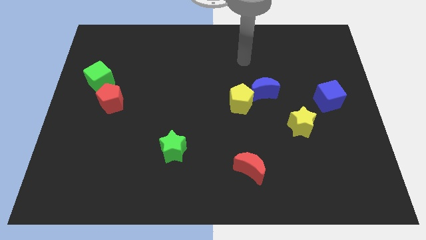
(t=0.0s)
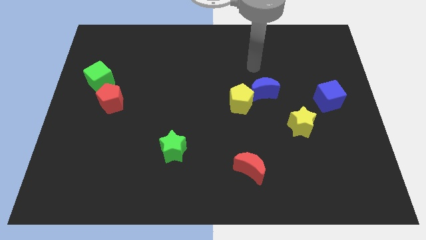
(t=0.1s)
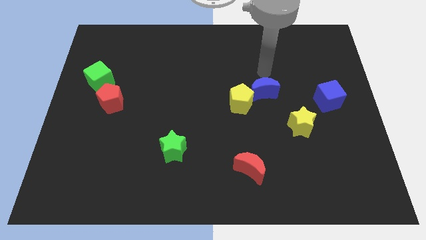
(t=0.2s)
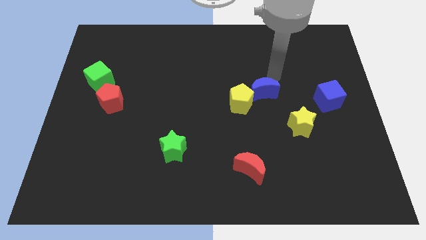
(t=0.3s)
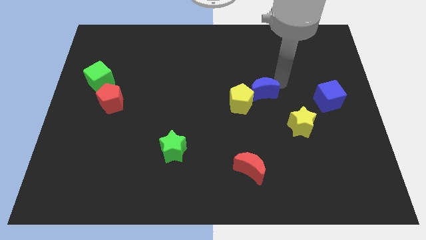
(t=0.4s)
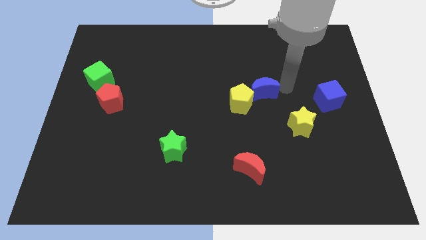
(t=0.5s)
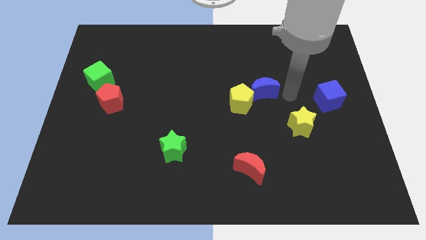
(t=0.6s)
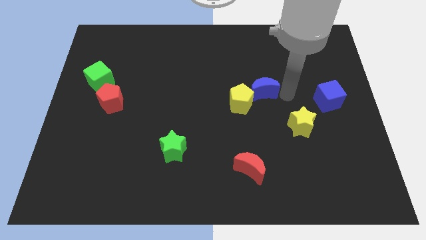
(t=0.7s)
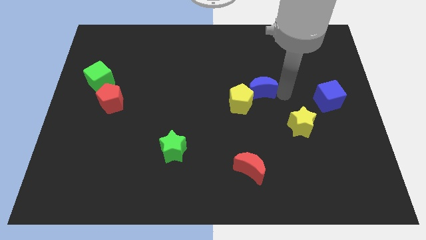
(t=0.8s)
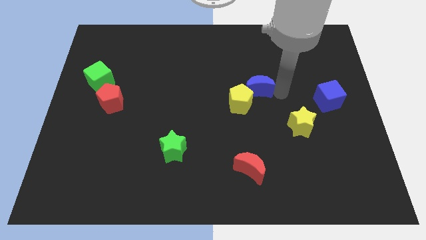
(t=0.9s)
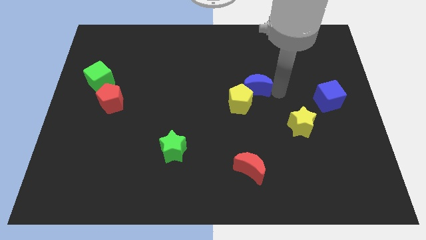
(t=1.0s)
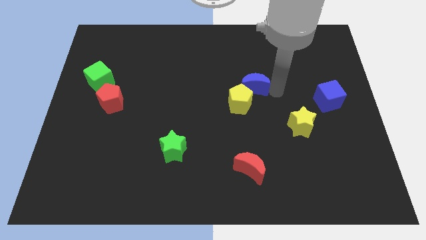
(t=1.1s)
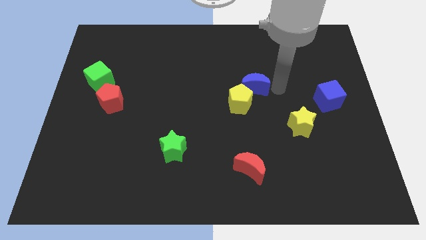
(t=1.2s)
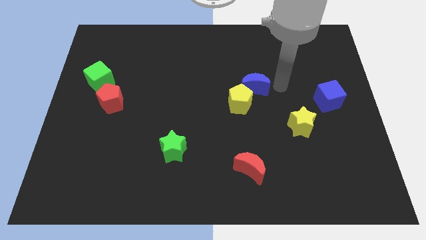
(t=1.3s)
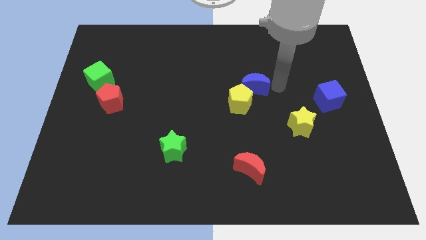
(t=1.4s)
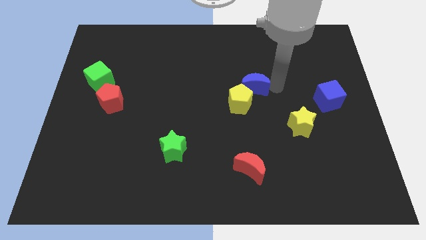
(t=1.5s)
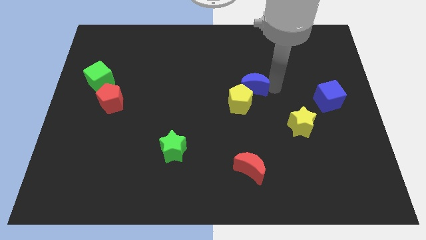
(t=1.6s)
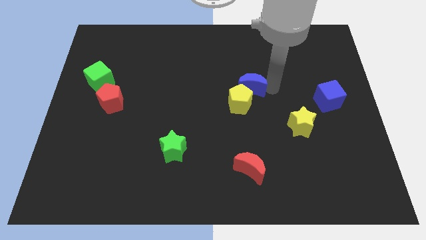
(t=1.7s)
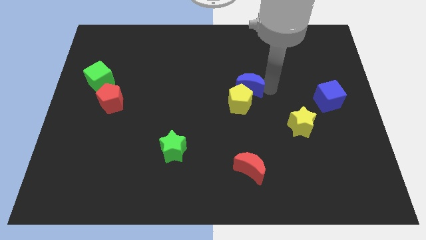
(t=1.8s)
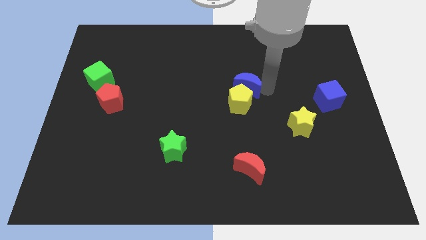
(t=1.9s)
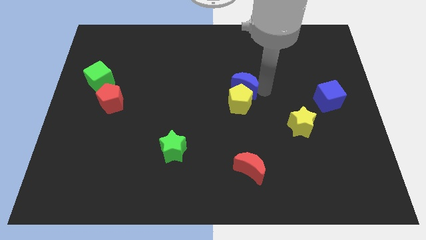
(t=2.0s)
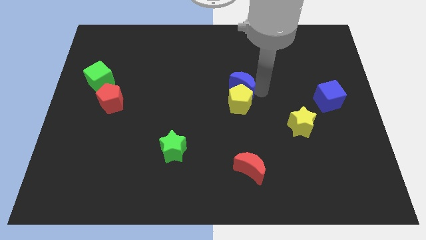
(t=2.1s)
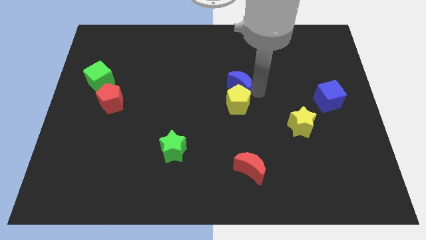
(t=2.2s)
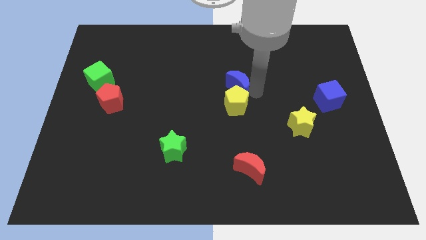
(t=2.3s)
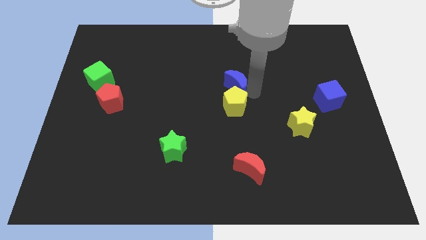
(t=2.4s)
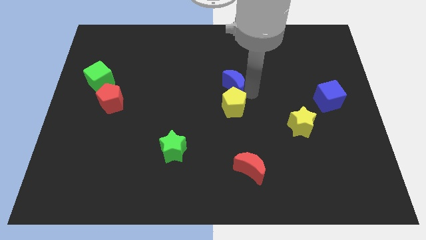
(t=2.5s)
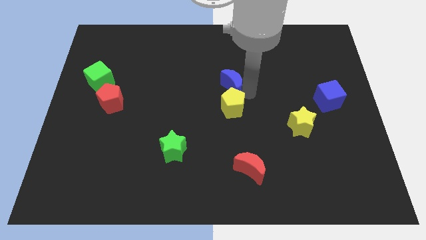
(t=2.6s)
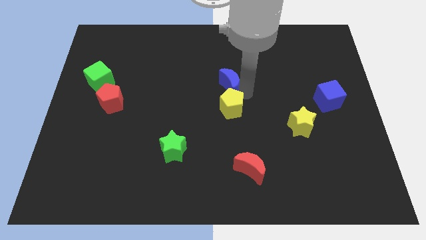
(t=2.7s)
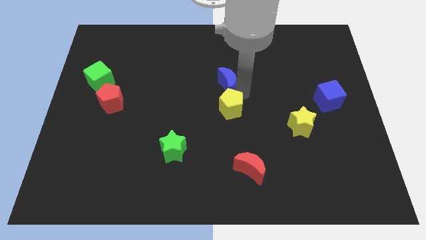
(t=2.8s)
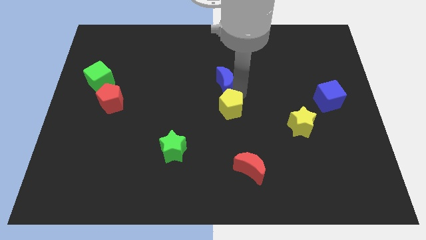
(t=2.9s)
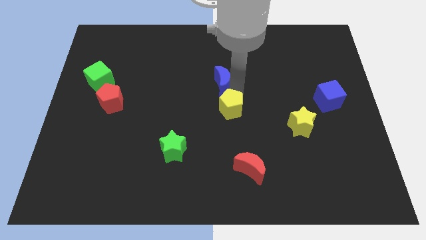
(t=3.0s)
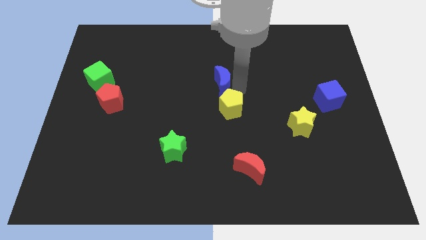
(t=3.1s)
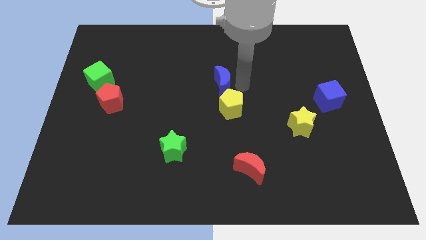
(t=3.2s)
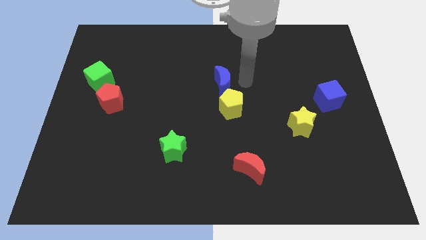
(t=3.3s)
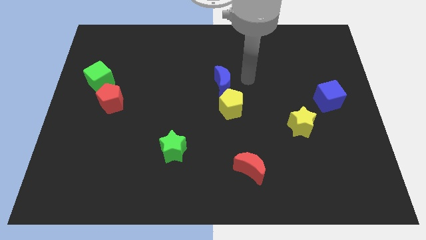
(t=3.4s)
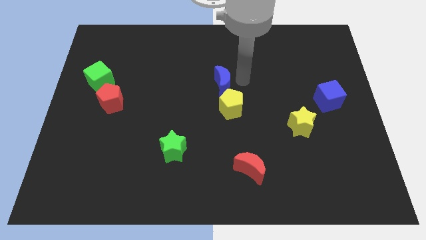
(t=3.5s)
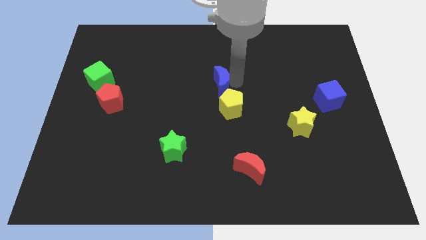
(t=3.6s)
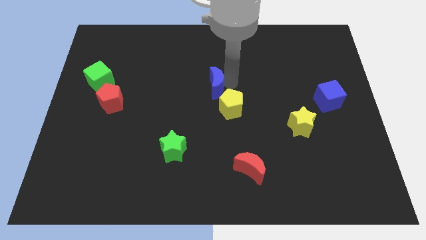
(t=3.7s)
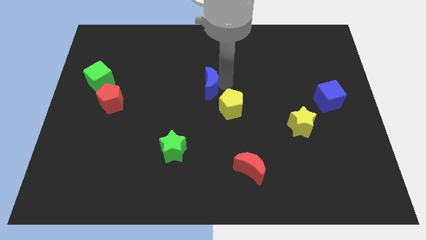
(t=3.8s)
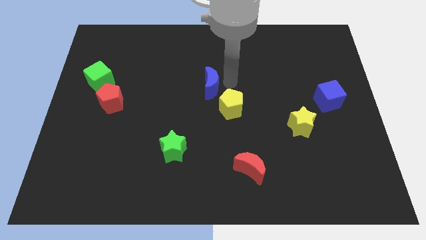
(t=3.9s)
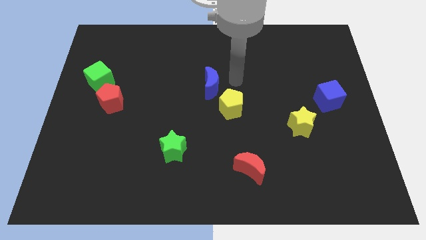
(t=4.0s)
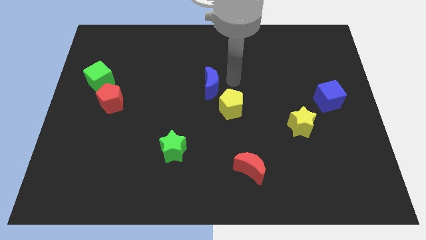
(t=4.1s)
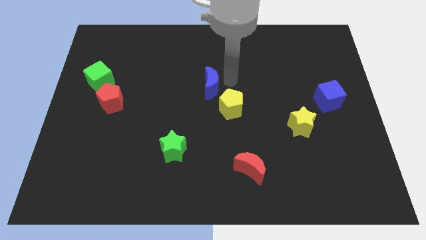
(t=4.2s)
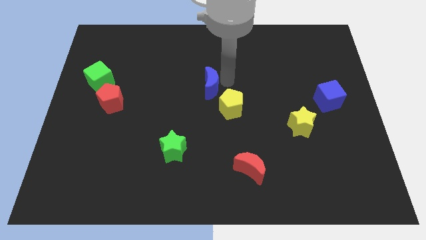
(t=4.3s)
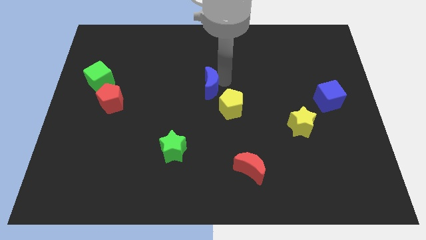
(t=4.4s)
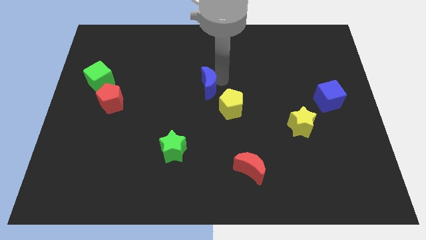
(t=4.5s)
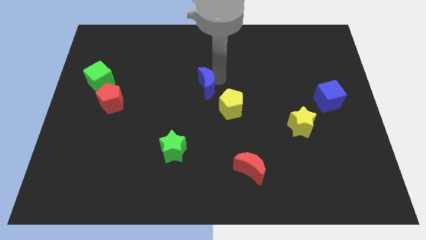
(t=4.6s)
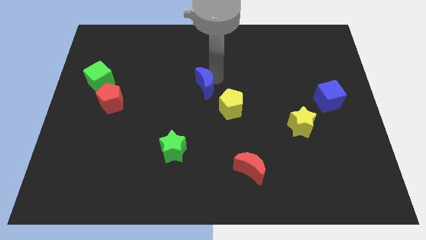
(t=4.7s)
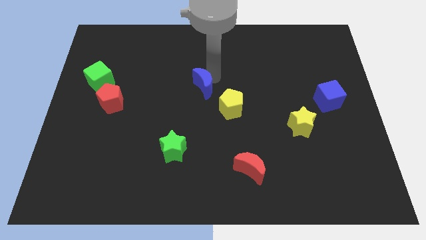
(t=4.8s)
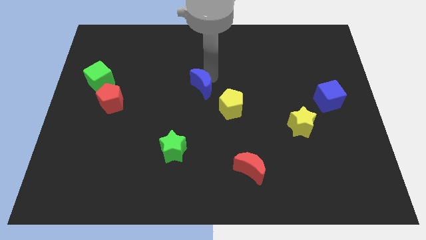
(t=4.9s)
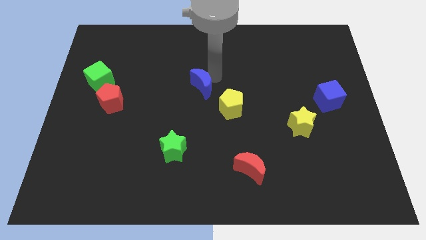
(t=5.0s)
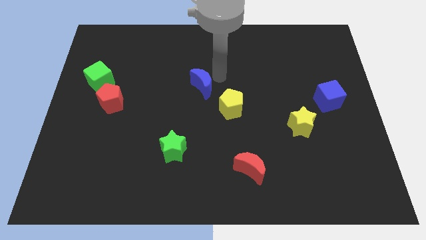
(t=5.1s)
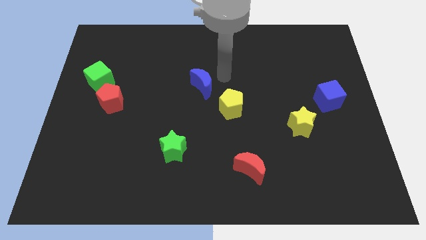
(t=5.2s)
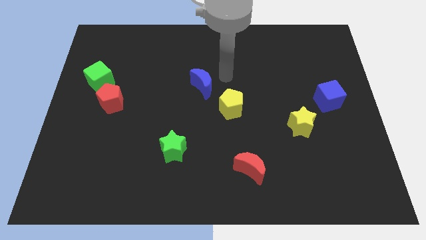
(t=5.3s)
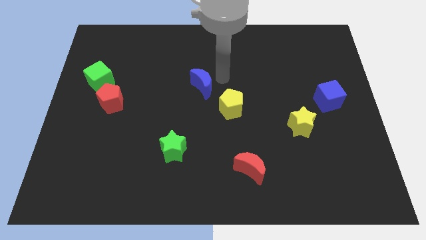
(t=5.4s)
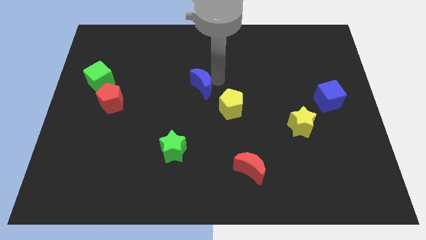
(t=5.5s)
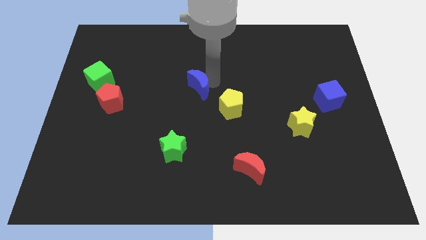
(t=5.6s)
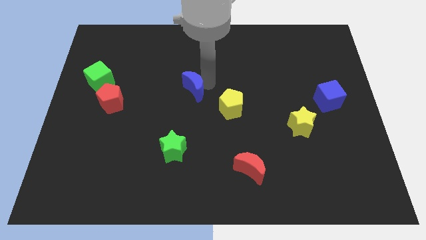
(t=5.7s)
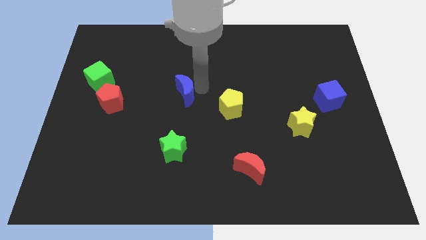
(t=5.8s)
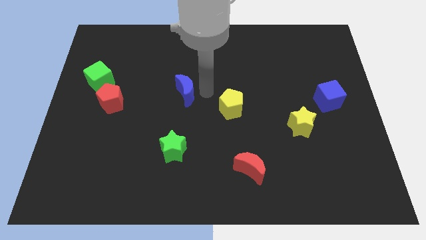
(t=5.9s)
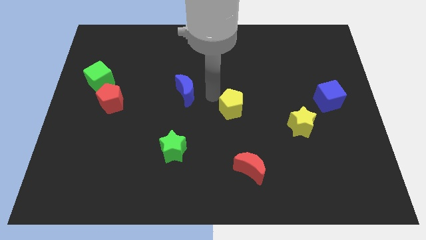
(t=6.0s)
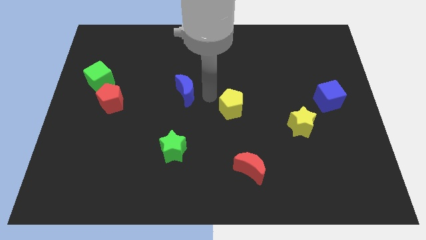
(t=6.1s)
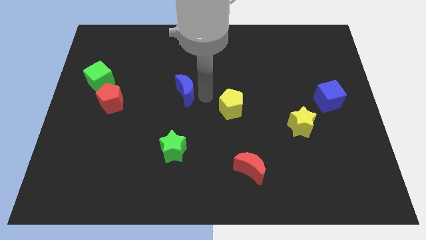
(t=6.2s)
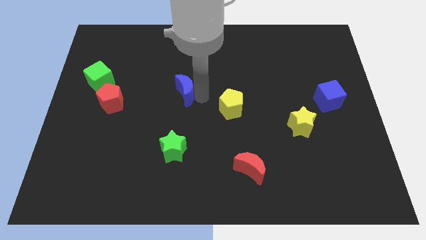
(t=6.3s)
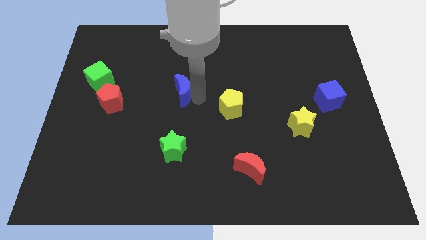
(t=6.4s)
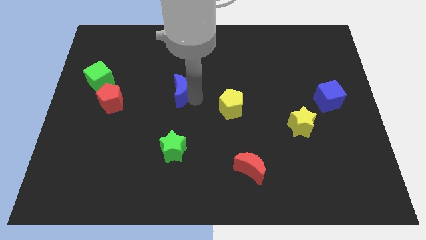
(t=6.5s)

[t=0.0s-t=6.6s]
move the blue moon to the left

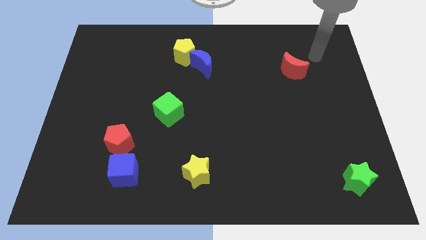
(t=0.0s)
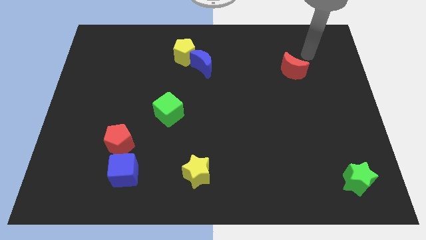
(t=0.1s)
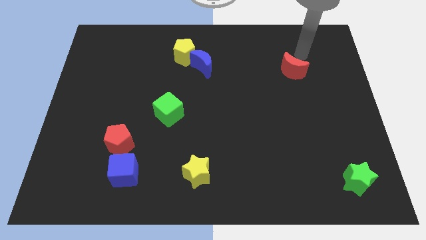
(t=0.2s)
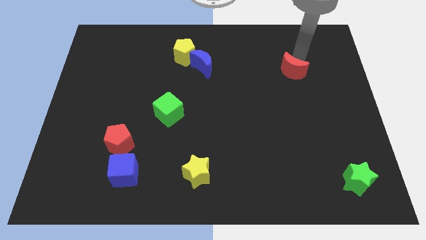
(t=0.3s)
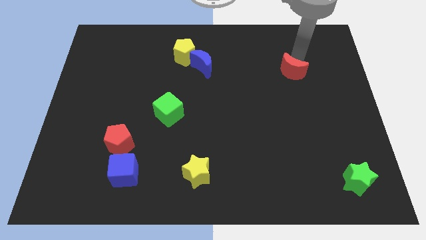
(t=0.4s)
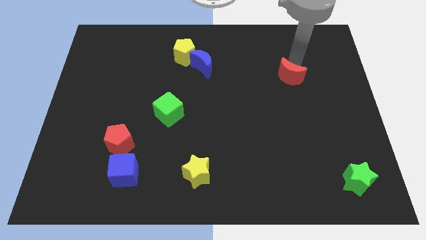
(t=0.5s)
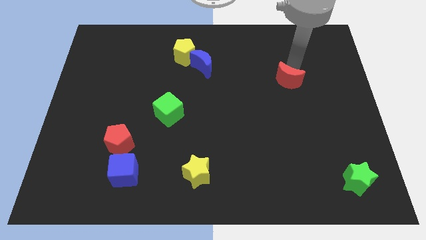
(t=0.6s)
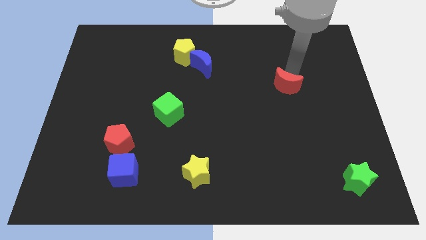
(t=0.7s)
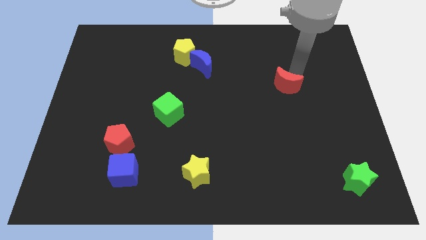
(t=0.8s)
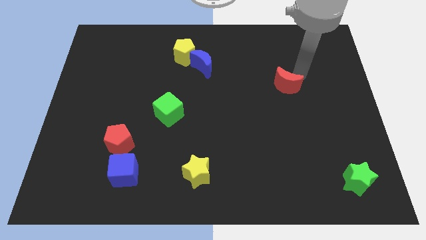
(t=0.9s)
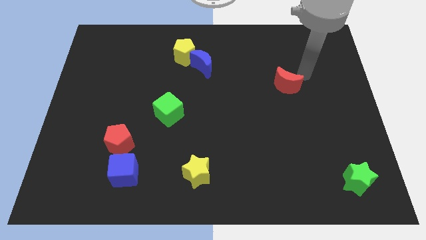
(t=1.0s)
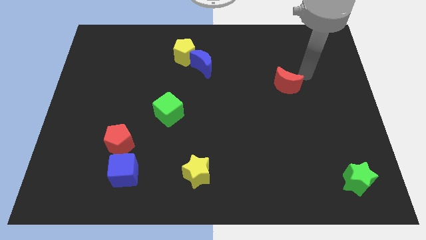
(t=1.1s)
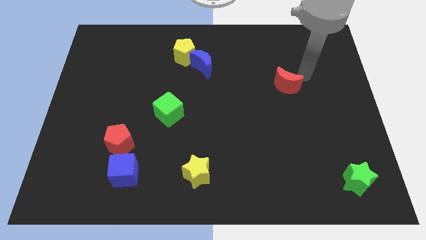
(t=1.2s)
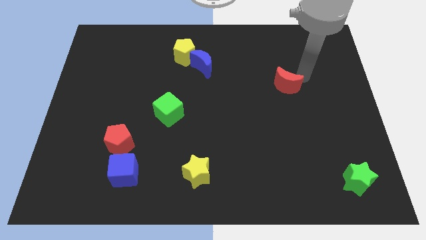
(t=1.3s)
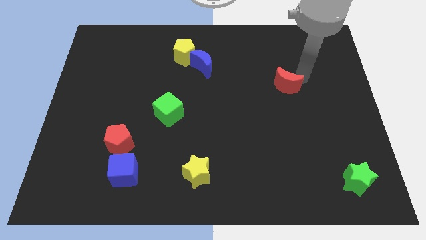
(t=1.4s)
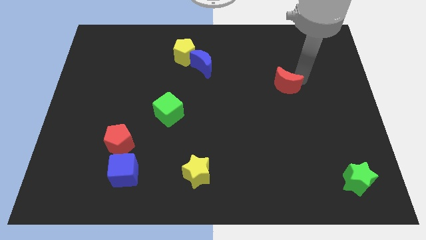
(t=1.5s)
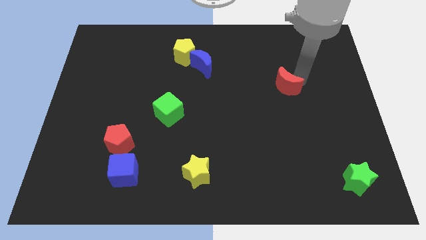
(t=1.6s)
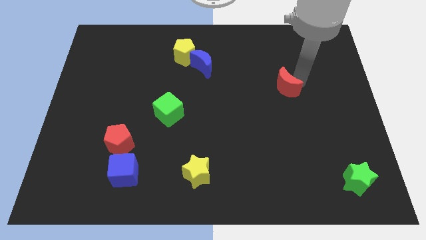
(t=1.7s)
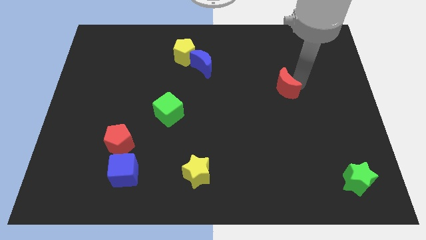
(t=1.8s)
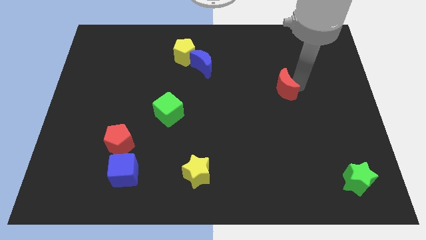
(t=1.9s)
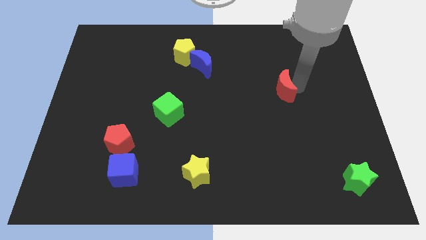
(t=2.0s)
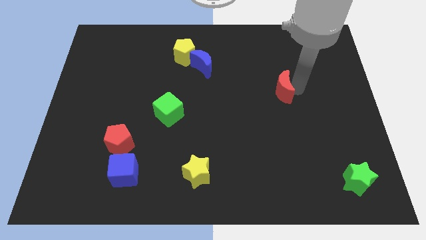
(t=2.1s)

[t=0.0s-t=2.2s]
slightly slide the red moon down and then to the left
